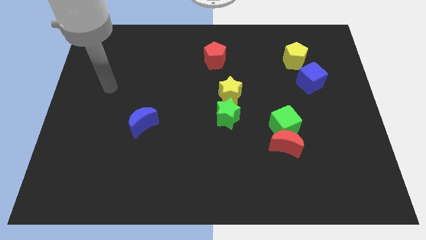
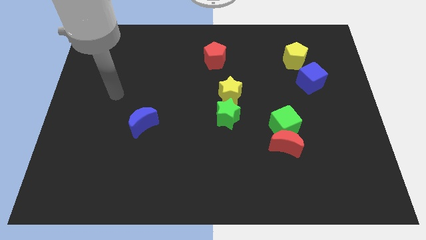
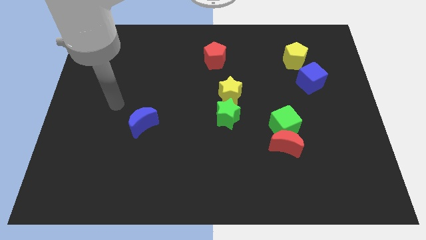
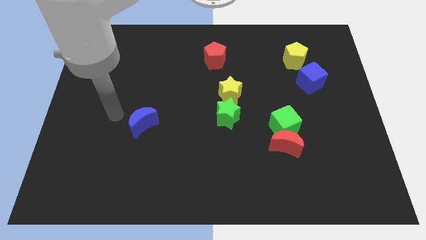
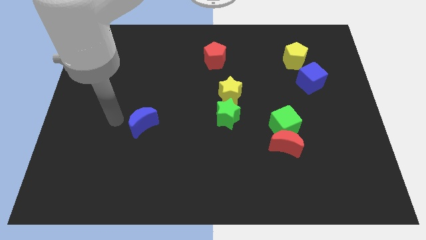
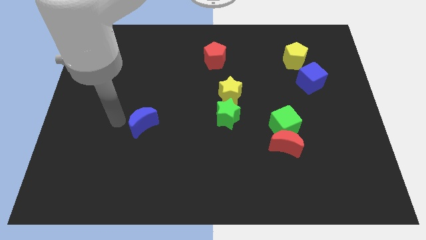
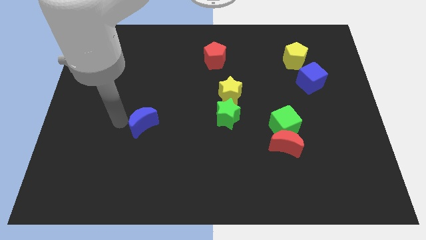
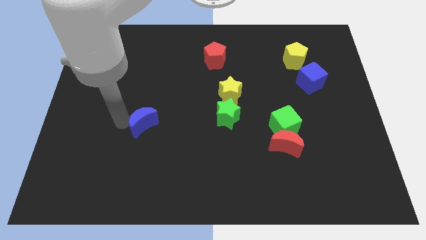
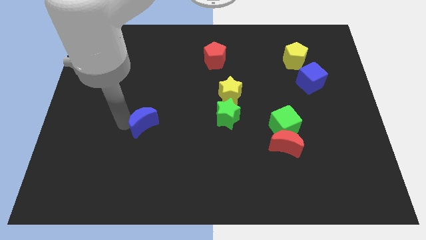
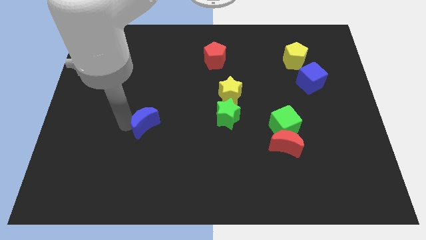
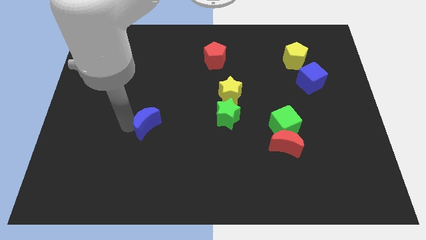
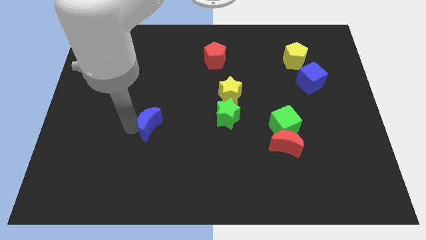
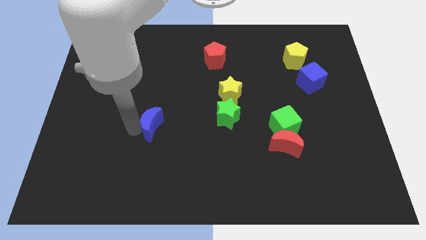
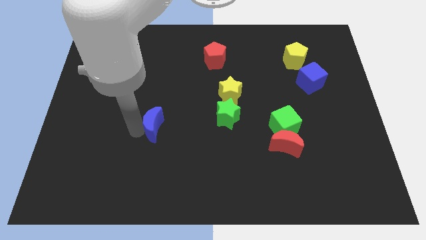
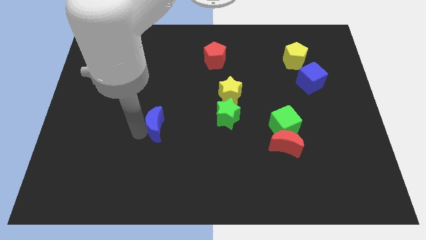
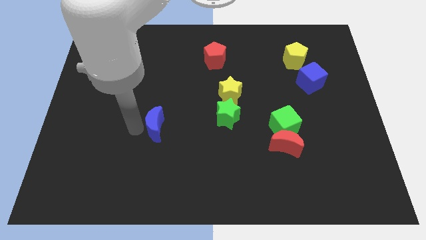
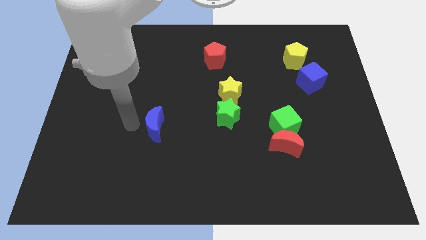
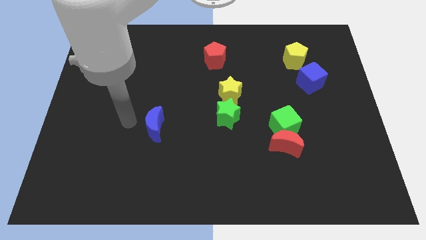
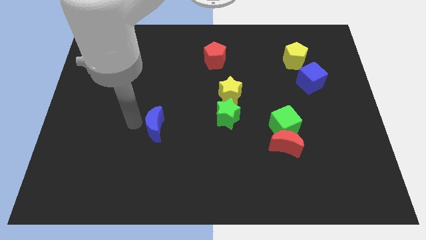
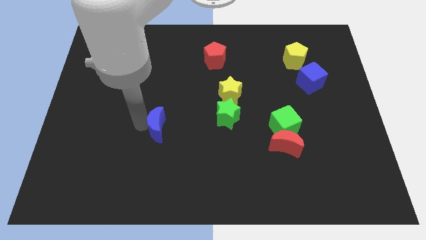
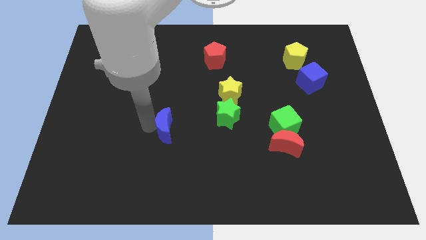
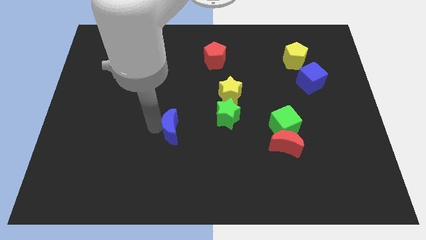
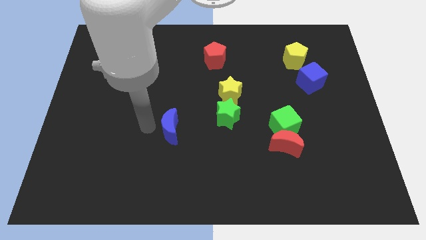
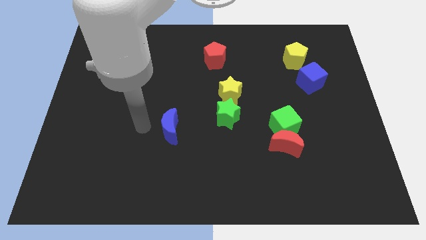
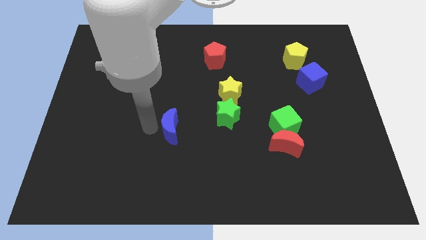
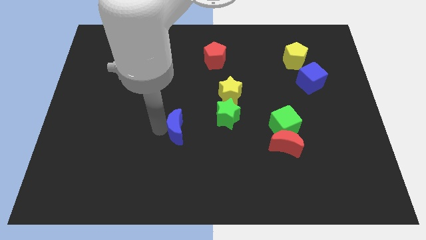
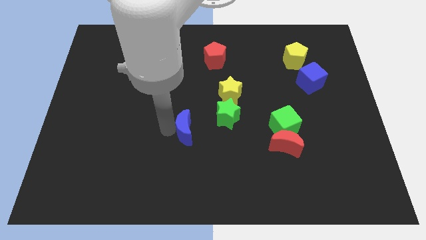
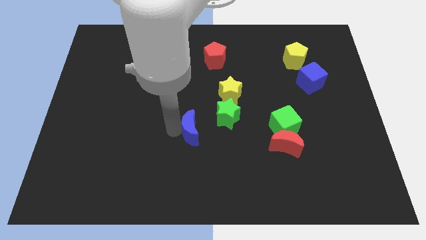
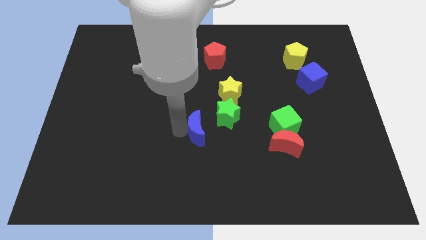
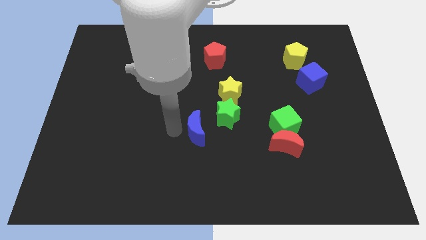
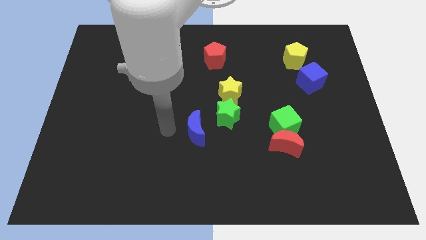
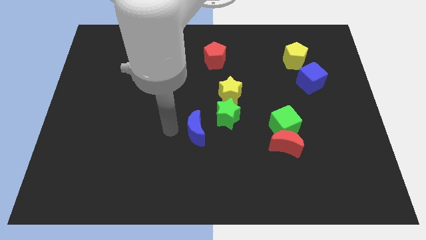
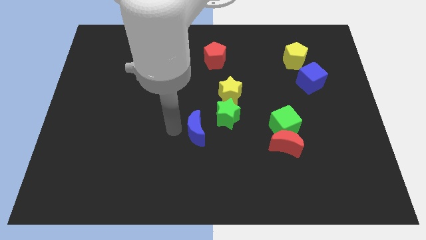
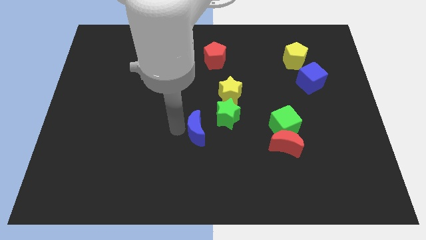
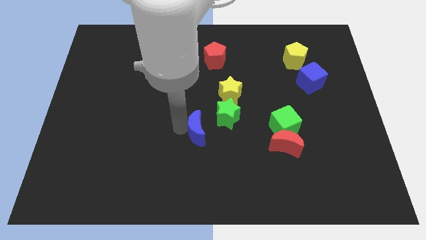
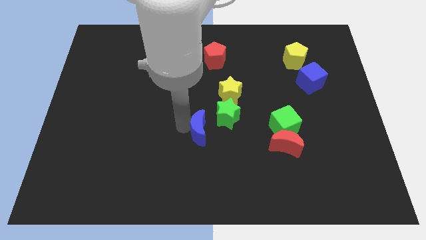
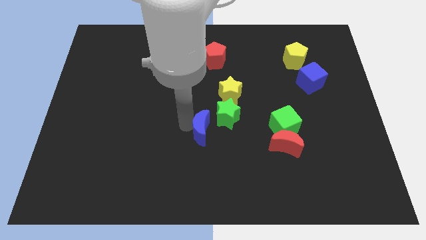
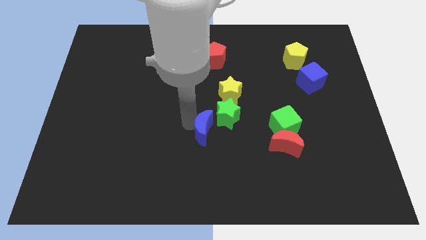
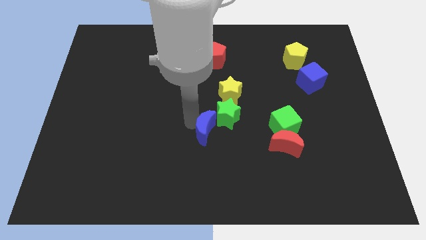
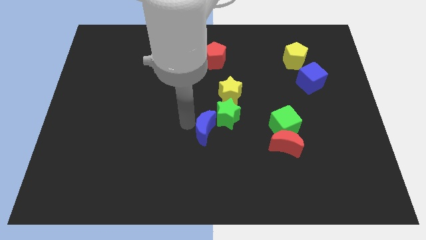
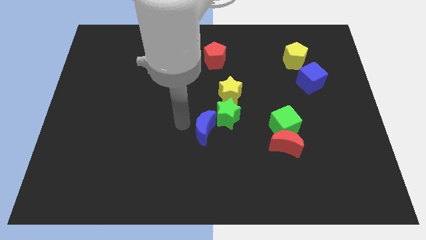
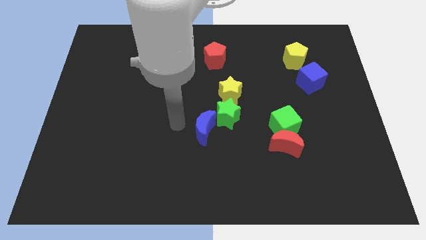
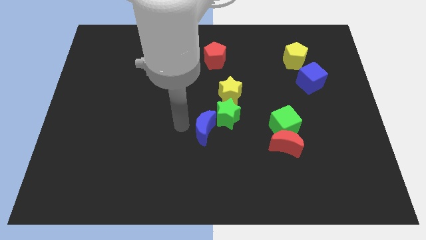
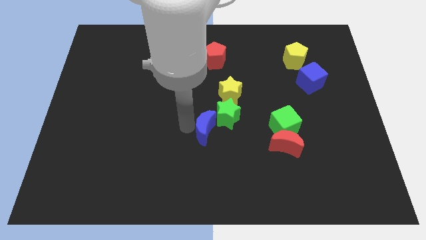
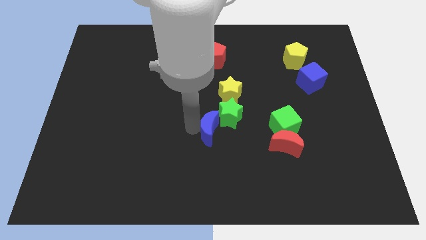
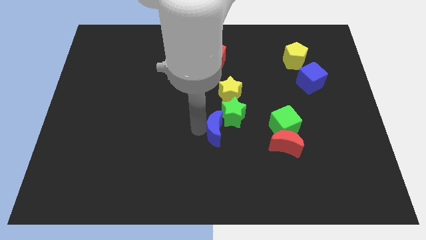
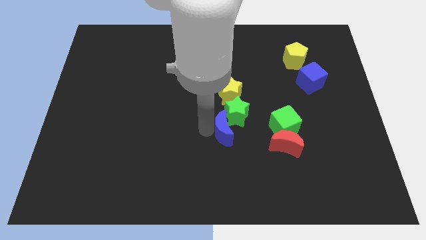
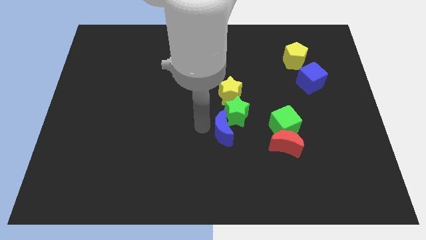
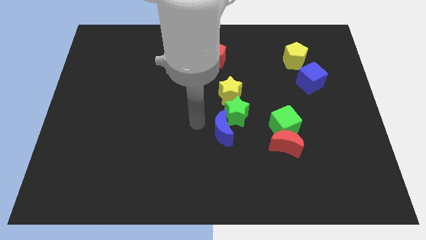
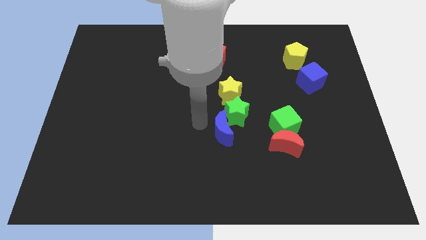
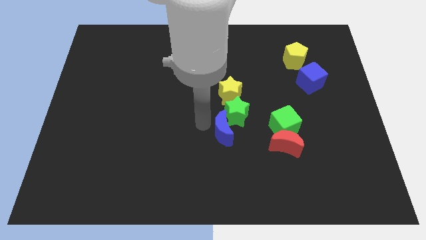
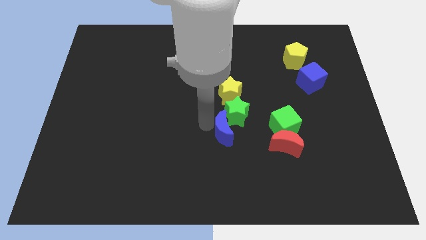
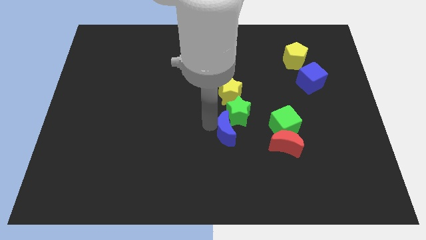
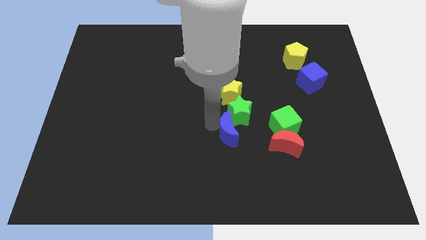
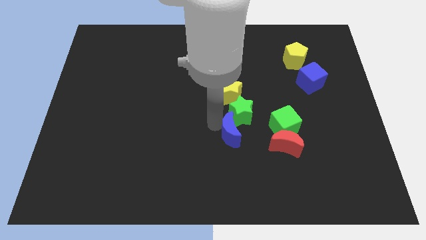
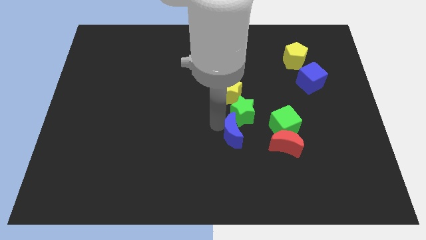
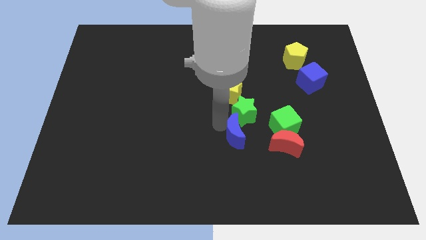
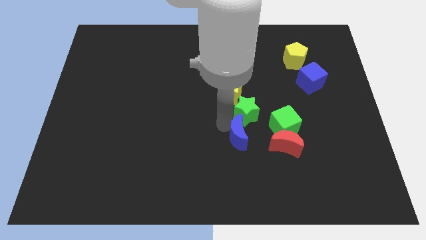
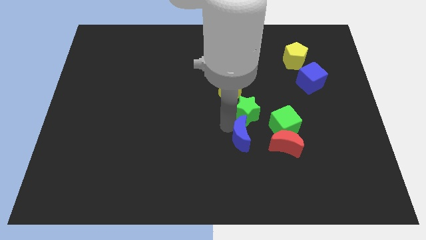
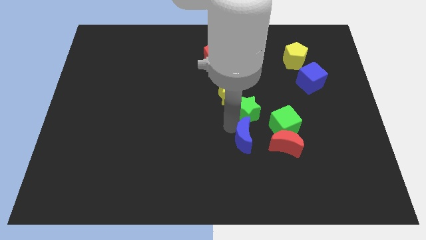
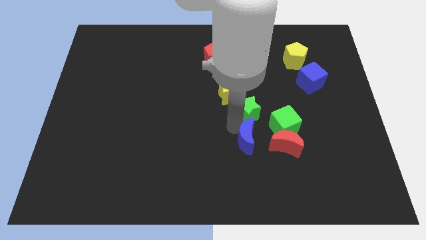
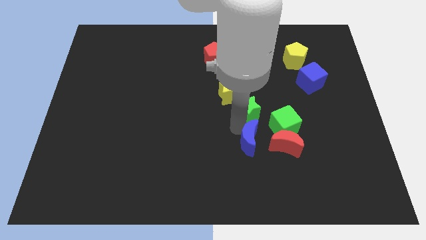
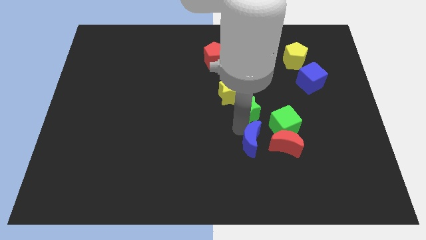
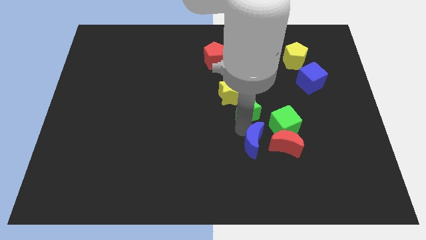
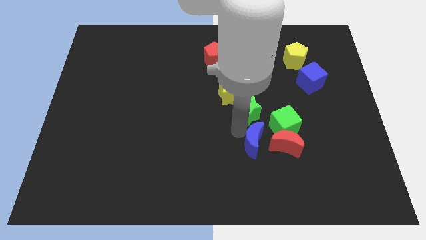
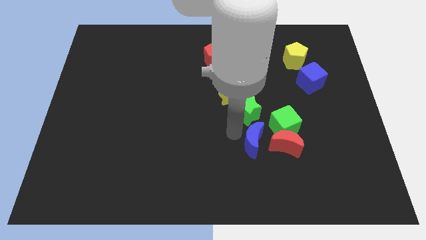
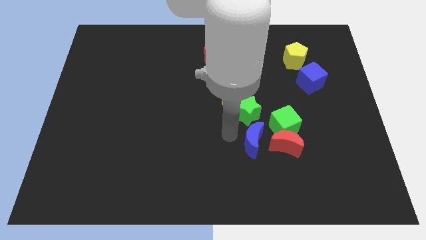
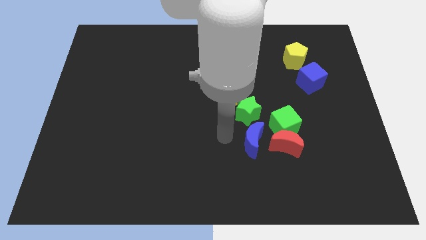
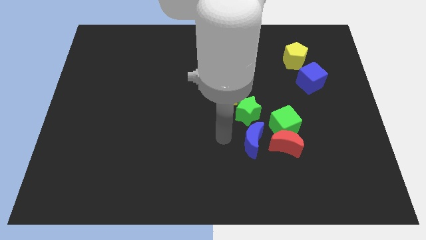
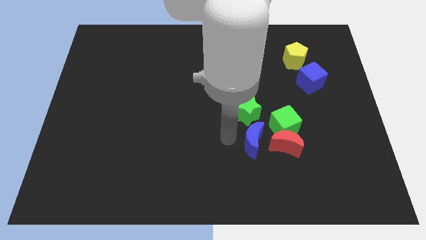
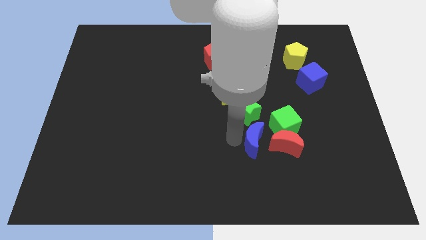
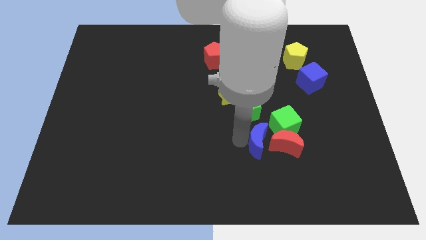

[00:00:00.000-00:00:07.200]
put the blue moon towards the red moon

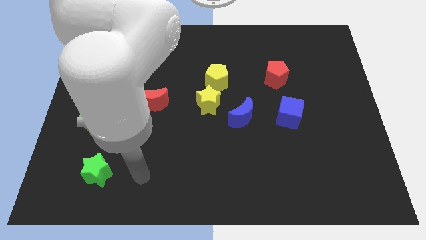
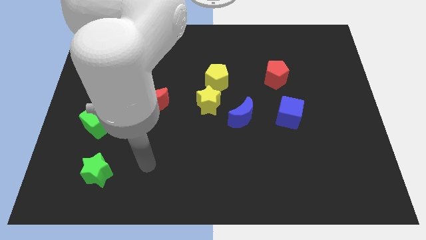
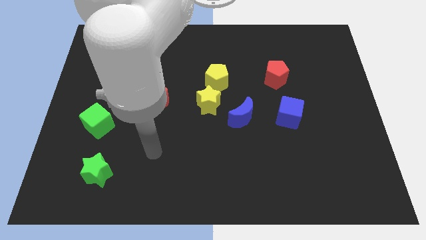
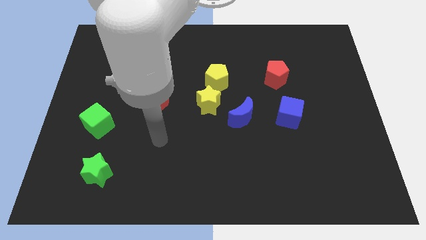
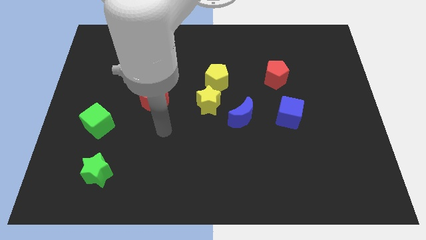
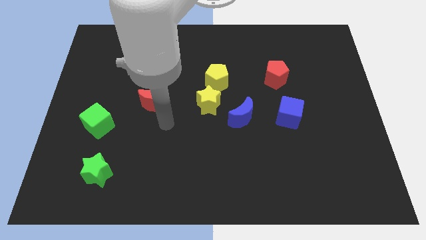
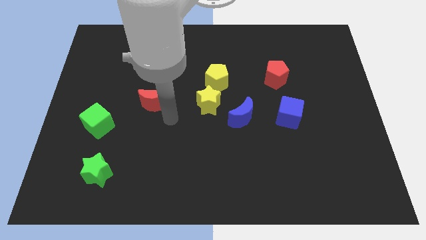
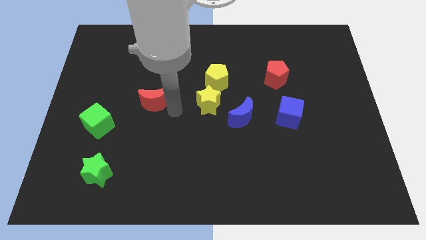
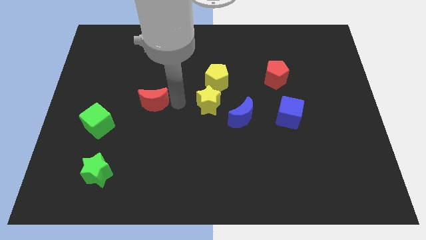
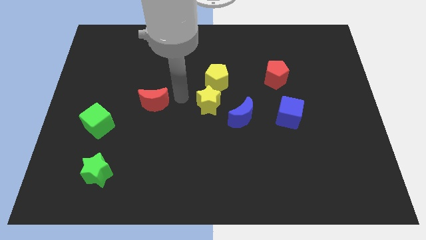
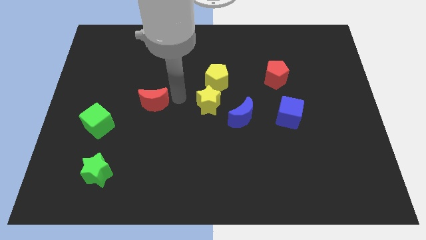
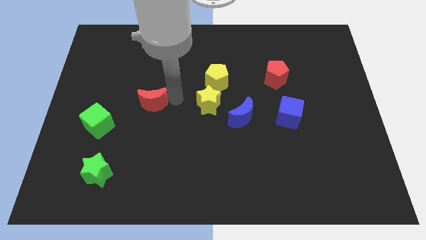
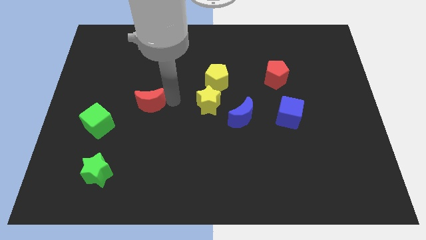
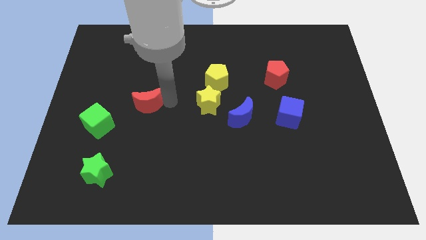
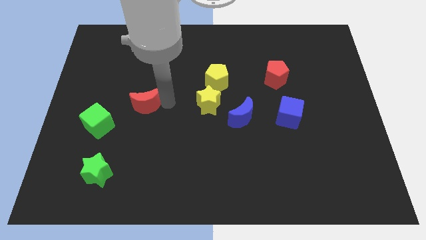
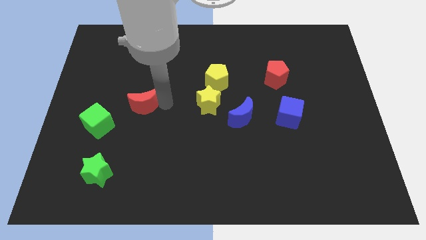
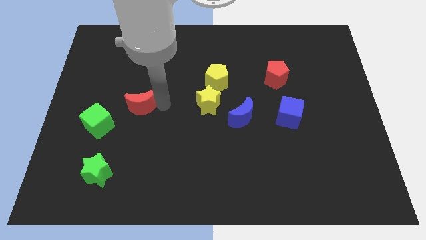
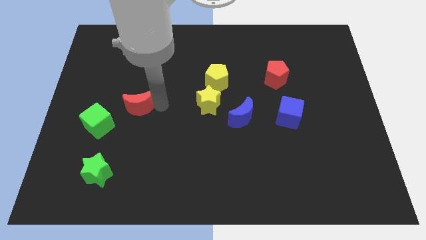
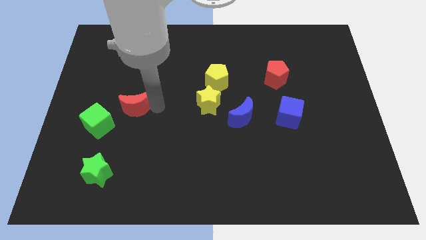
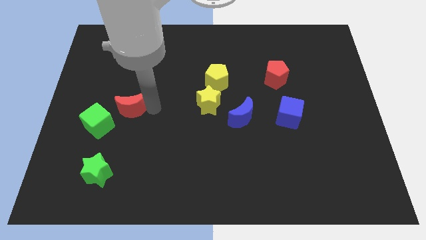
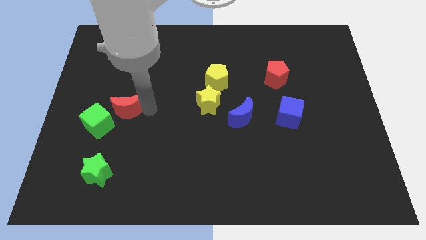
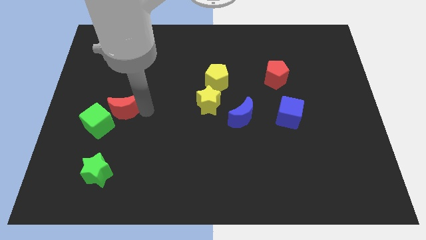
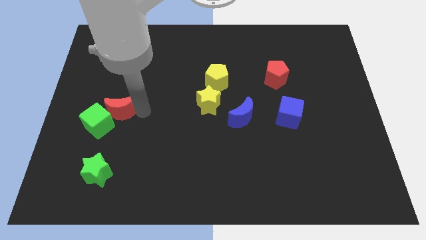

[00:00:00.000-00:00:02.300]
put the red moon to the green cube
